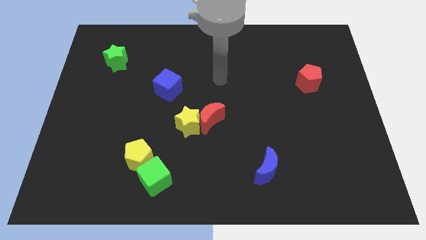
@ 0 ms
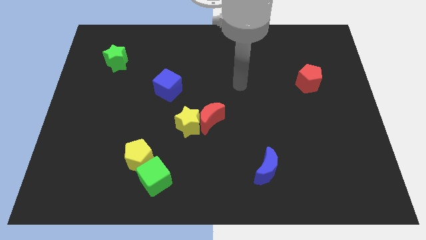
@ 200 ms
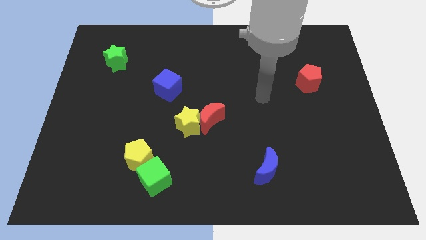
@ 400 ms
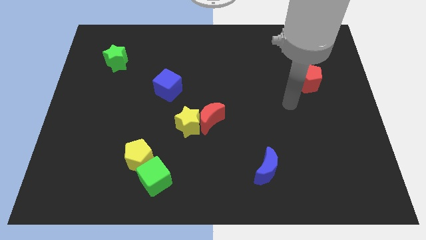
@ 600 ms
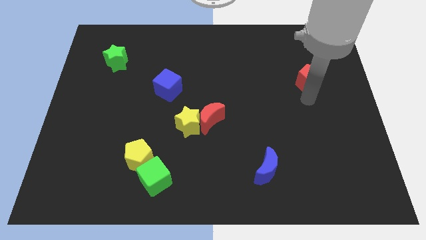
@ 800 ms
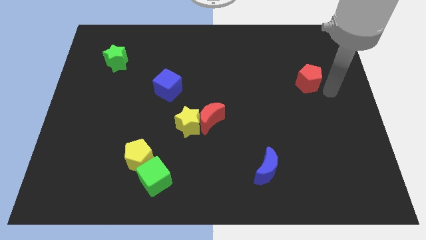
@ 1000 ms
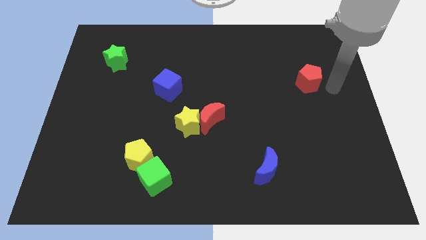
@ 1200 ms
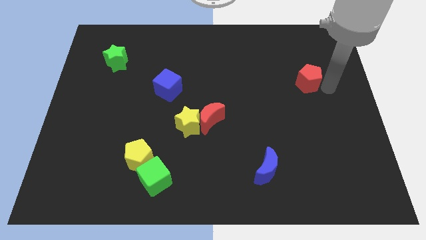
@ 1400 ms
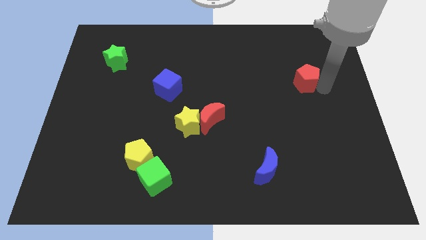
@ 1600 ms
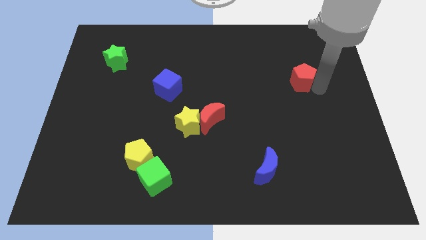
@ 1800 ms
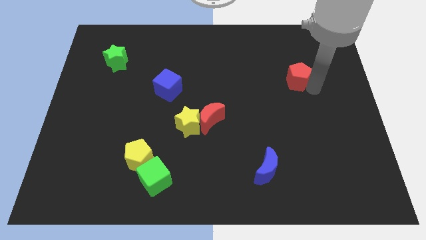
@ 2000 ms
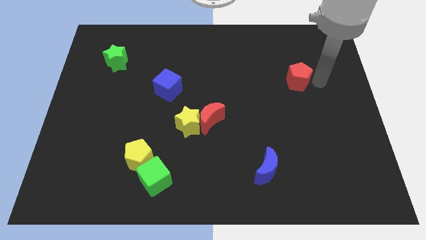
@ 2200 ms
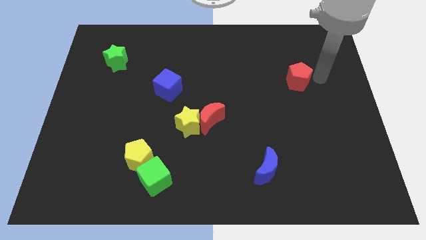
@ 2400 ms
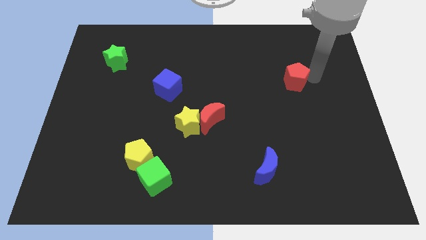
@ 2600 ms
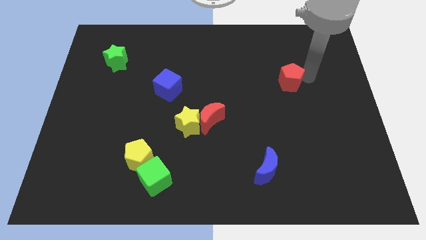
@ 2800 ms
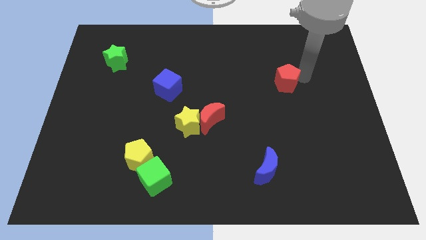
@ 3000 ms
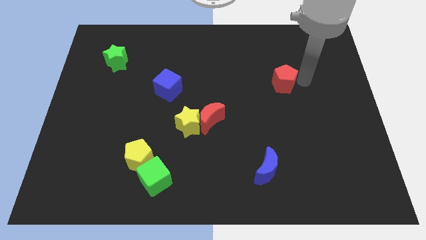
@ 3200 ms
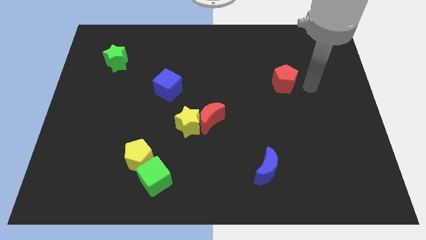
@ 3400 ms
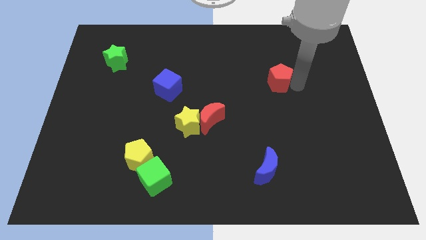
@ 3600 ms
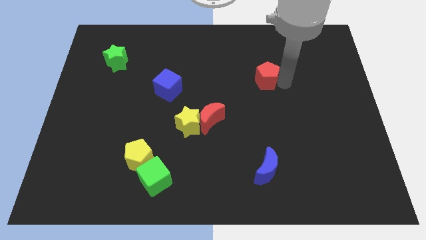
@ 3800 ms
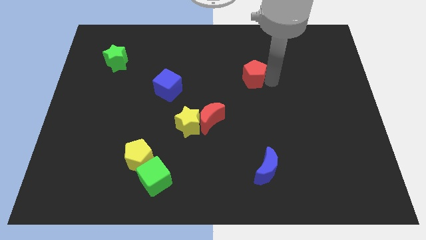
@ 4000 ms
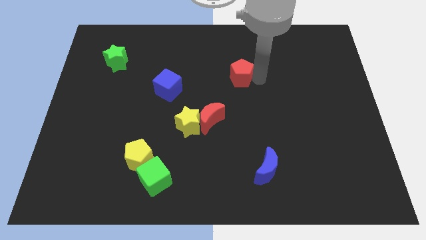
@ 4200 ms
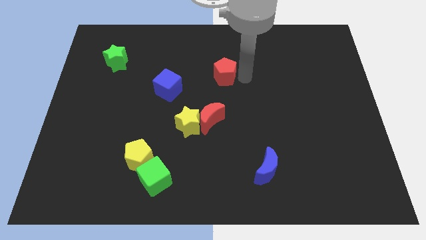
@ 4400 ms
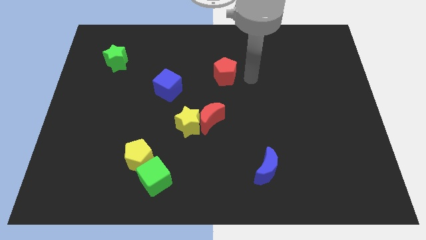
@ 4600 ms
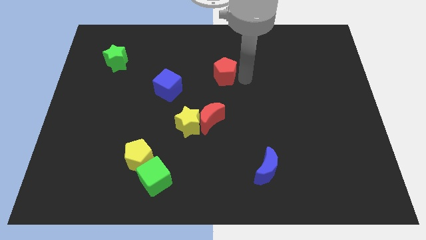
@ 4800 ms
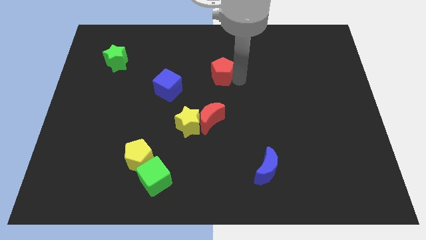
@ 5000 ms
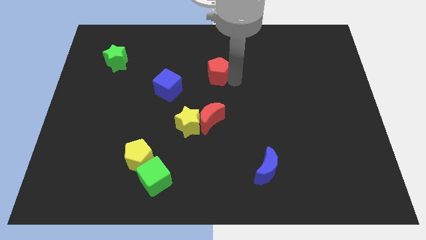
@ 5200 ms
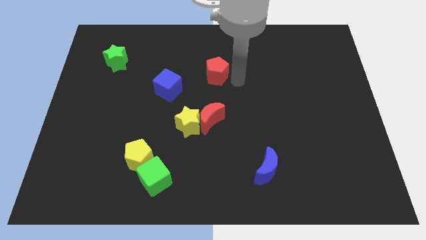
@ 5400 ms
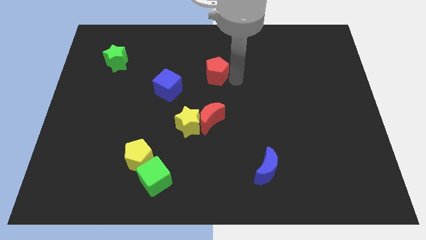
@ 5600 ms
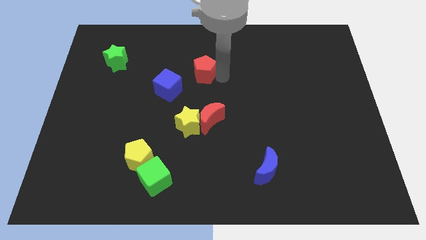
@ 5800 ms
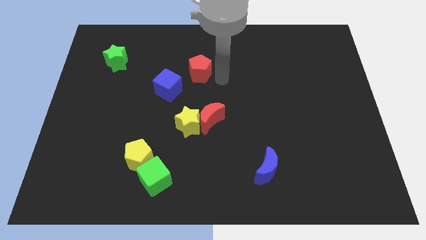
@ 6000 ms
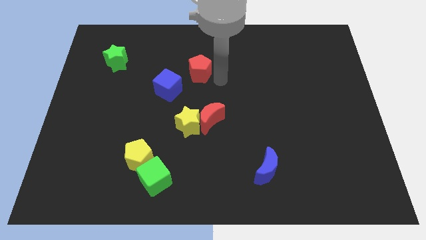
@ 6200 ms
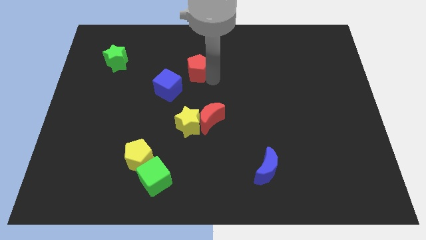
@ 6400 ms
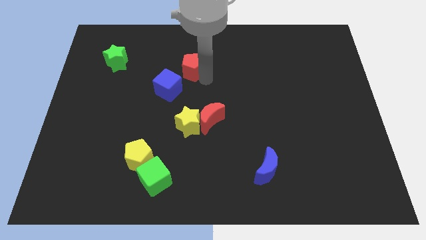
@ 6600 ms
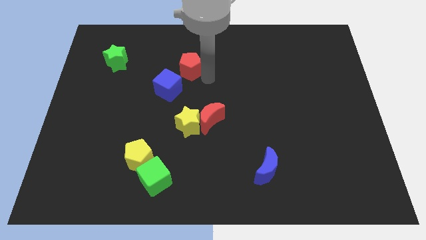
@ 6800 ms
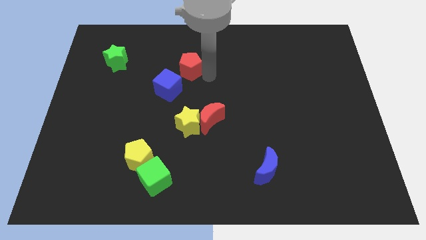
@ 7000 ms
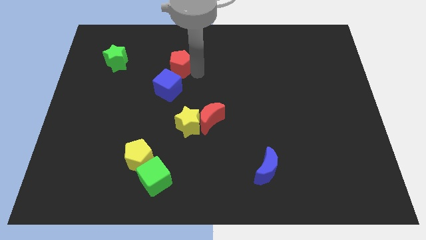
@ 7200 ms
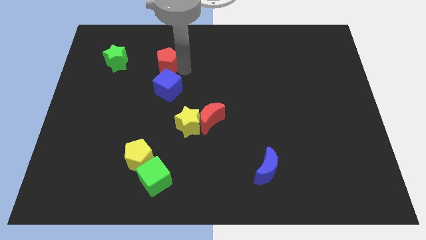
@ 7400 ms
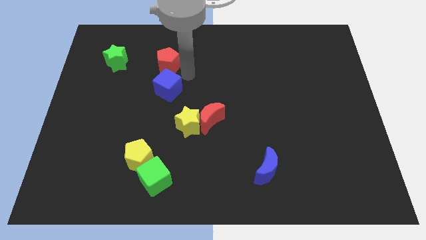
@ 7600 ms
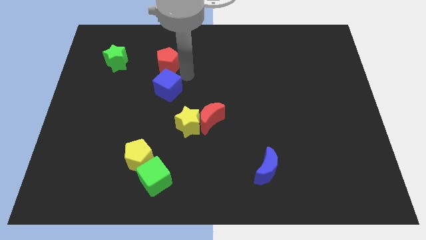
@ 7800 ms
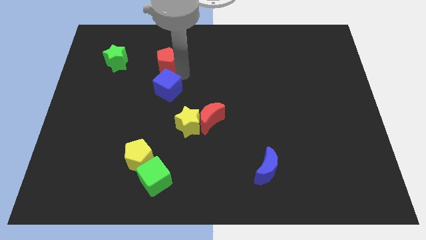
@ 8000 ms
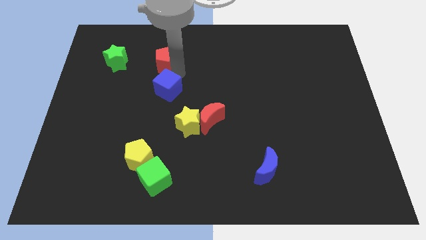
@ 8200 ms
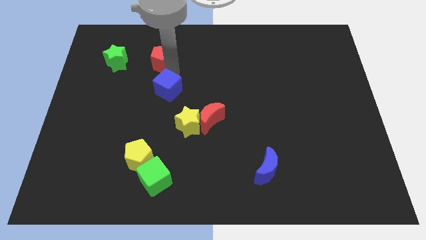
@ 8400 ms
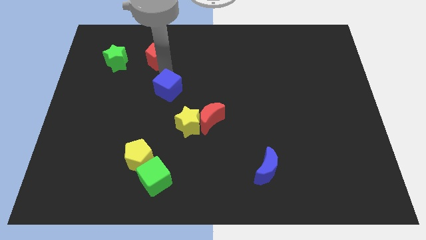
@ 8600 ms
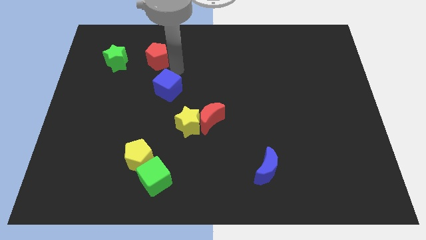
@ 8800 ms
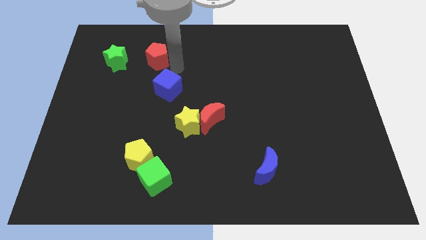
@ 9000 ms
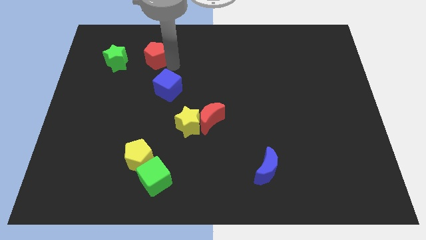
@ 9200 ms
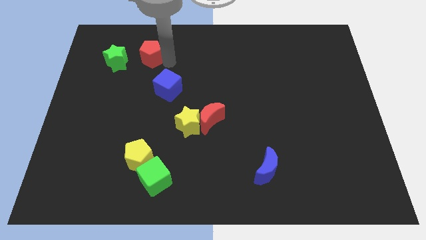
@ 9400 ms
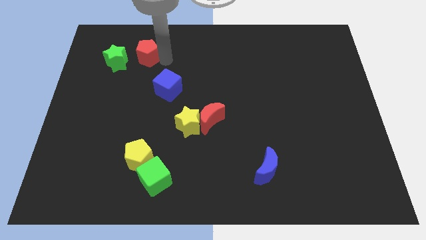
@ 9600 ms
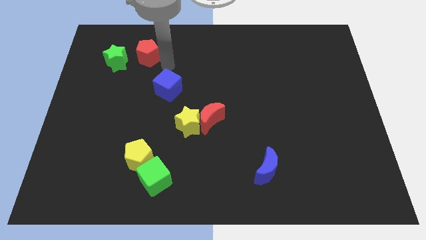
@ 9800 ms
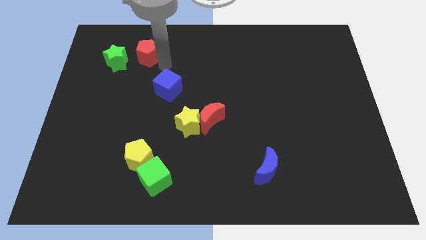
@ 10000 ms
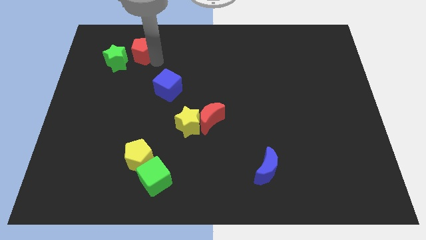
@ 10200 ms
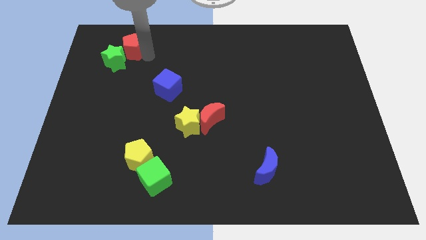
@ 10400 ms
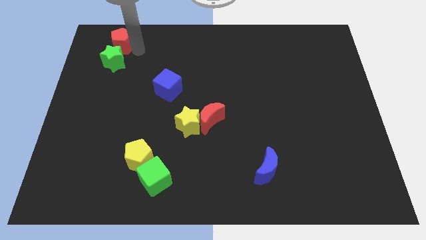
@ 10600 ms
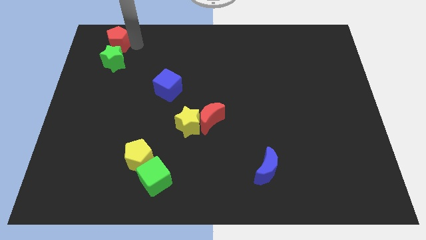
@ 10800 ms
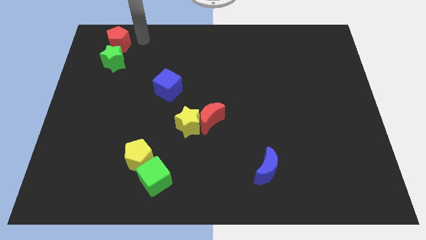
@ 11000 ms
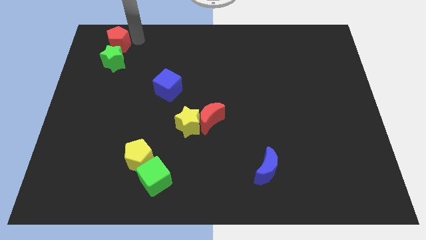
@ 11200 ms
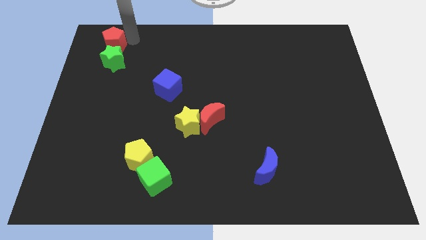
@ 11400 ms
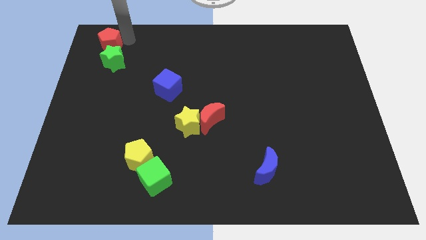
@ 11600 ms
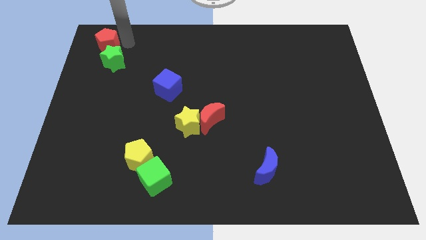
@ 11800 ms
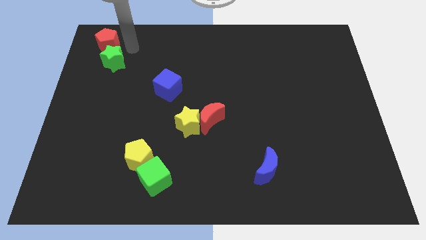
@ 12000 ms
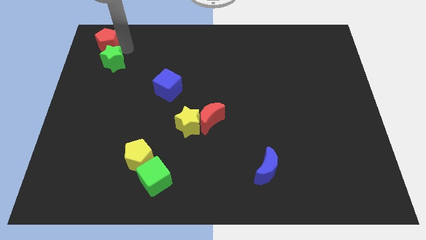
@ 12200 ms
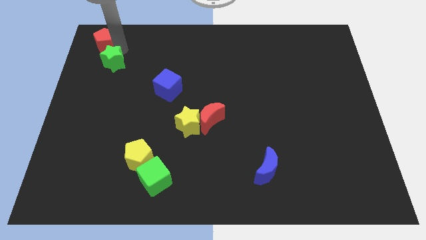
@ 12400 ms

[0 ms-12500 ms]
move the red pentagon to the top left of the board

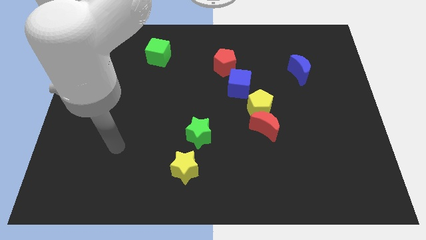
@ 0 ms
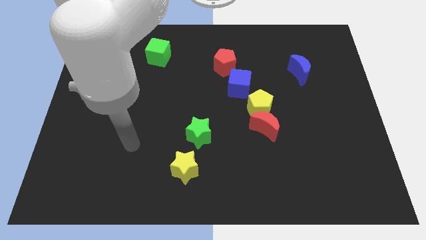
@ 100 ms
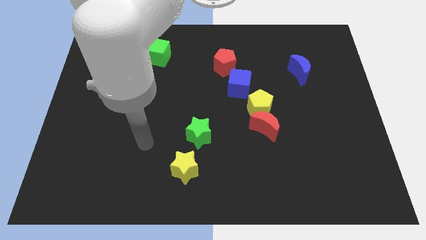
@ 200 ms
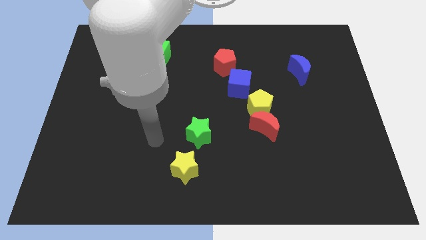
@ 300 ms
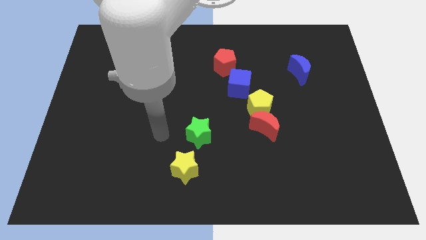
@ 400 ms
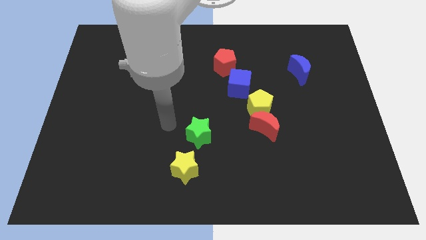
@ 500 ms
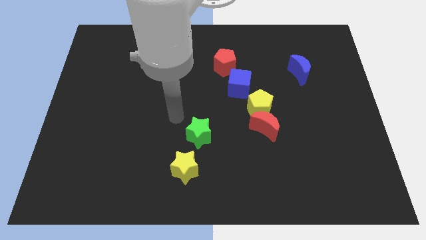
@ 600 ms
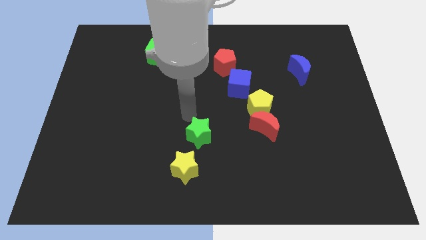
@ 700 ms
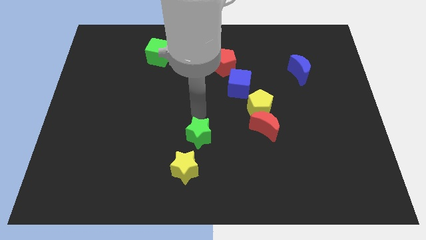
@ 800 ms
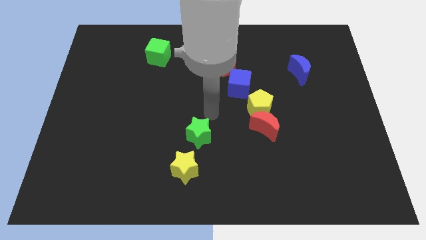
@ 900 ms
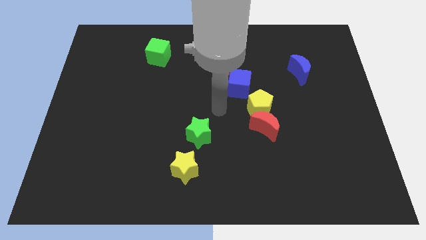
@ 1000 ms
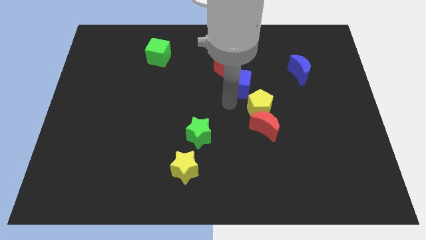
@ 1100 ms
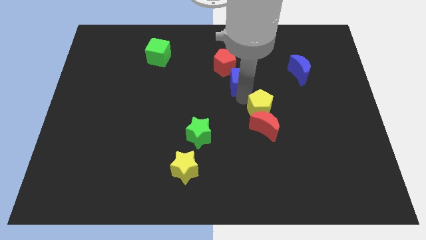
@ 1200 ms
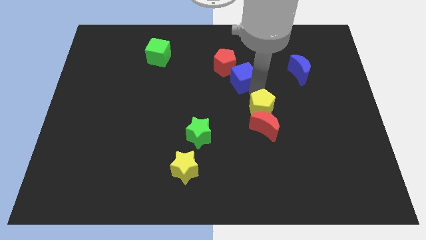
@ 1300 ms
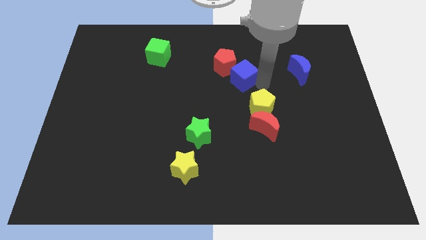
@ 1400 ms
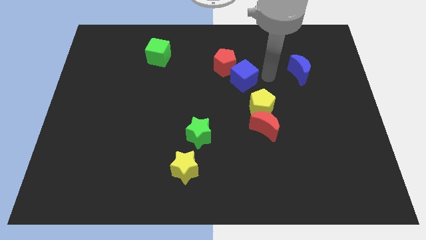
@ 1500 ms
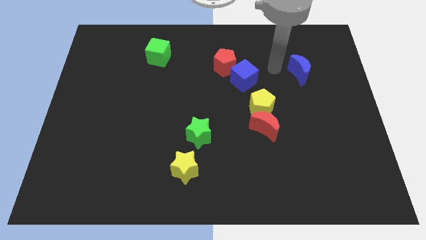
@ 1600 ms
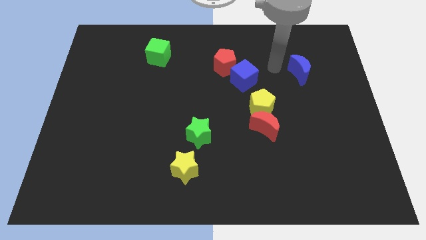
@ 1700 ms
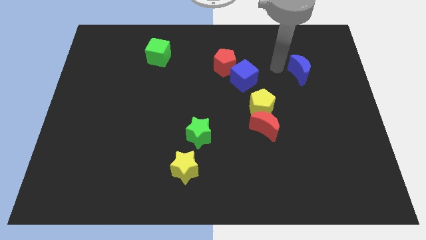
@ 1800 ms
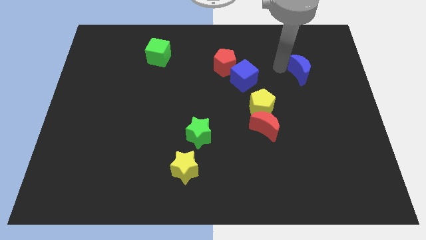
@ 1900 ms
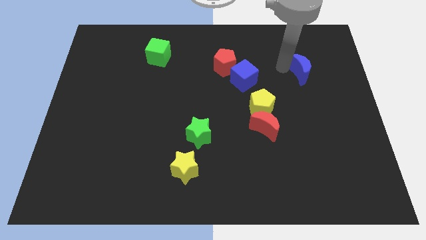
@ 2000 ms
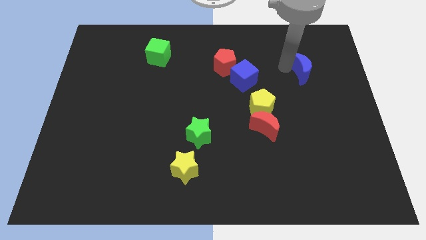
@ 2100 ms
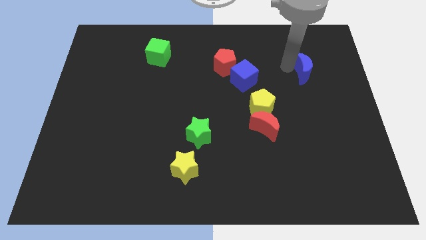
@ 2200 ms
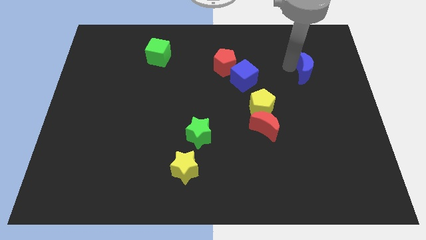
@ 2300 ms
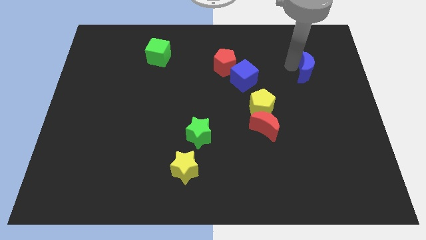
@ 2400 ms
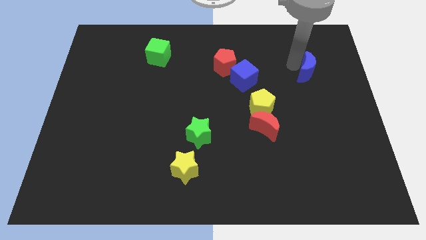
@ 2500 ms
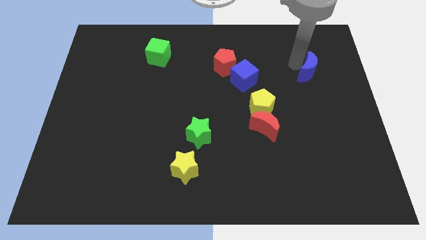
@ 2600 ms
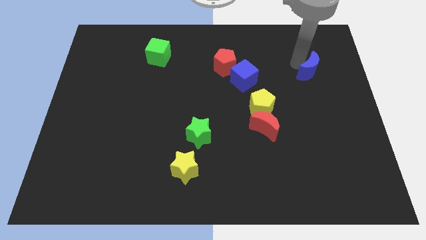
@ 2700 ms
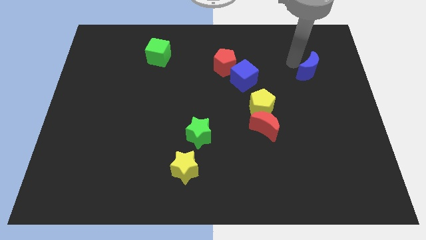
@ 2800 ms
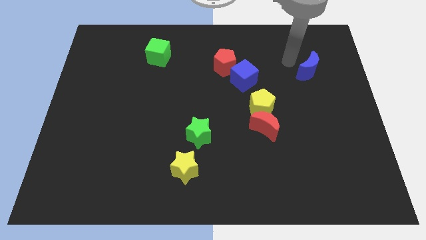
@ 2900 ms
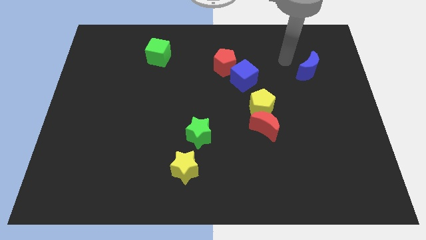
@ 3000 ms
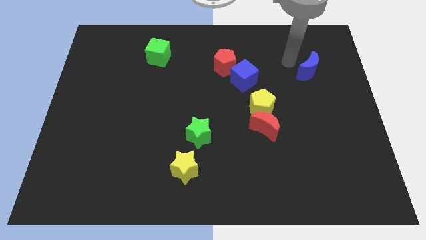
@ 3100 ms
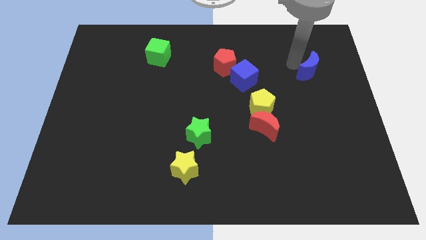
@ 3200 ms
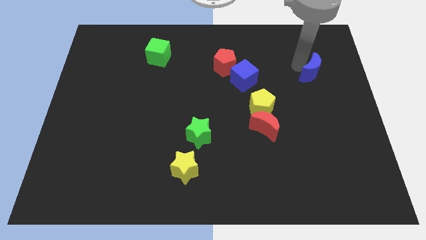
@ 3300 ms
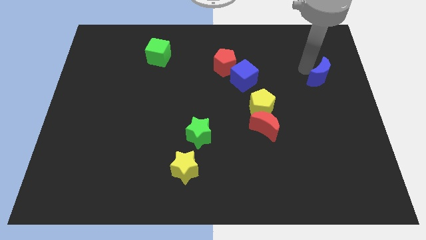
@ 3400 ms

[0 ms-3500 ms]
push the blue moon to the right side of the board
